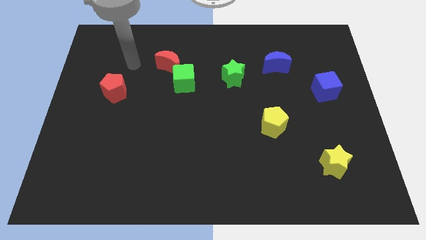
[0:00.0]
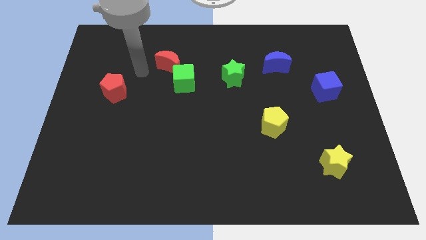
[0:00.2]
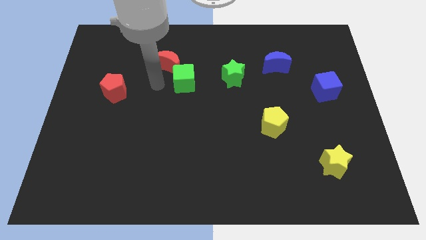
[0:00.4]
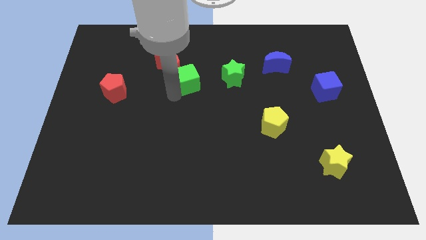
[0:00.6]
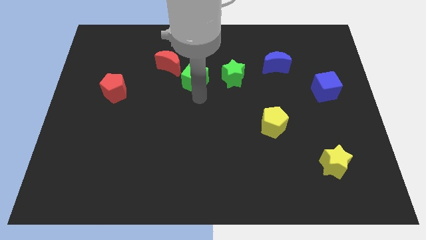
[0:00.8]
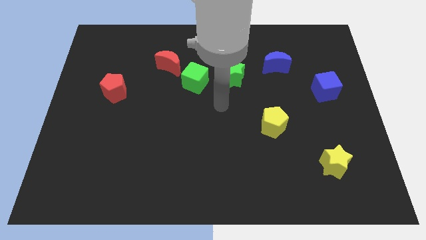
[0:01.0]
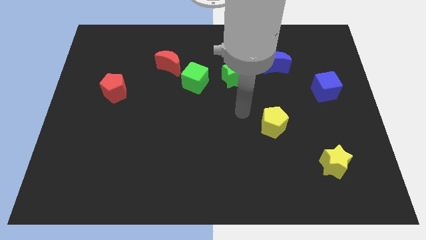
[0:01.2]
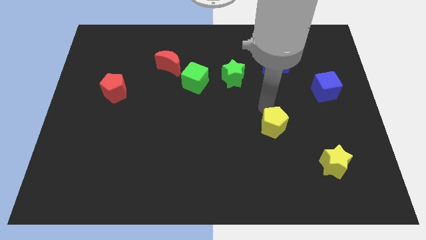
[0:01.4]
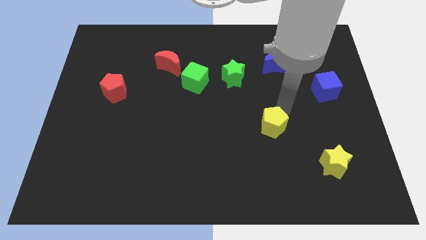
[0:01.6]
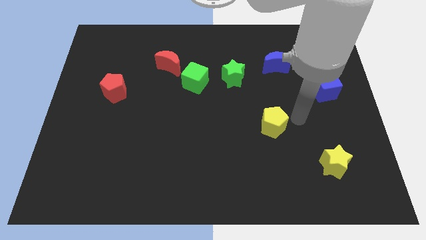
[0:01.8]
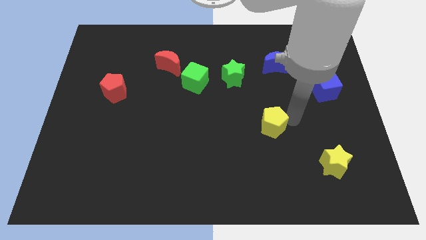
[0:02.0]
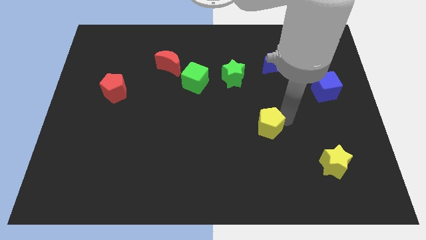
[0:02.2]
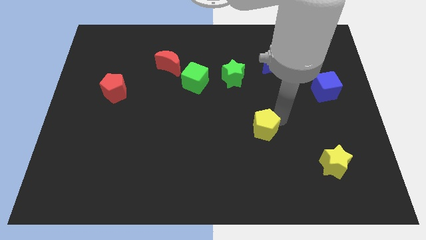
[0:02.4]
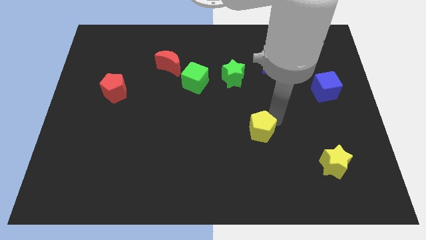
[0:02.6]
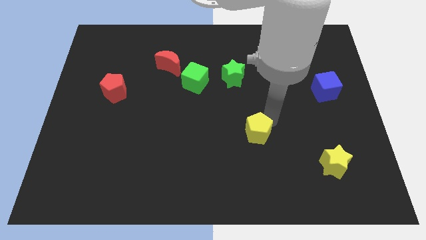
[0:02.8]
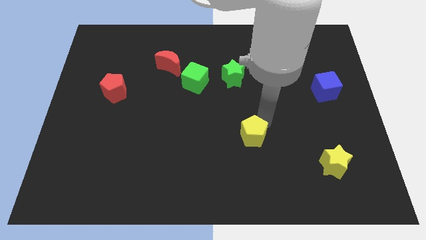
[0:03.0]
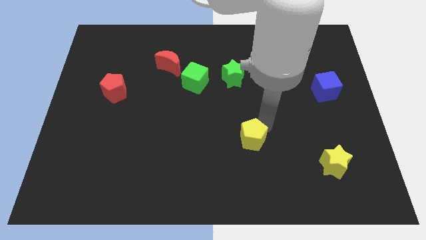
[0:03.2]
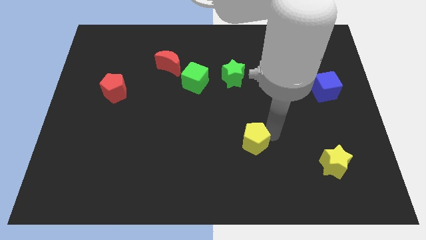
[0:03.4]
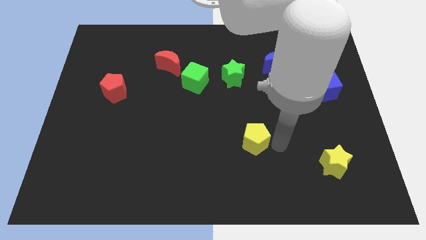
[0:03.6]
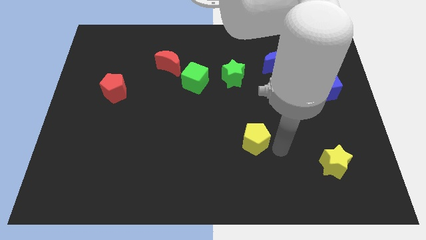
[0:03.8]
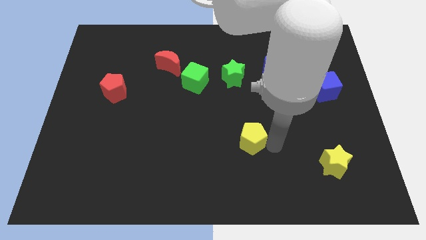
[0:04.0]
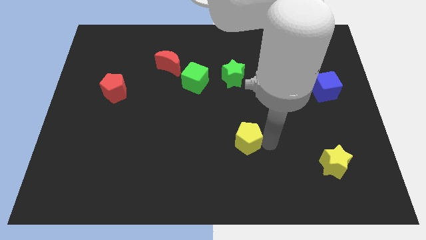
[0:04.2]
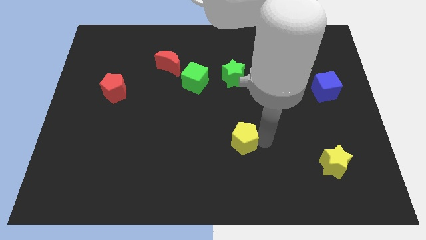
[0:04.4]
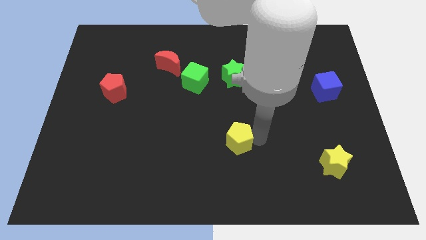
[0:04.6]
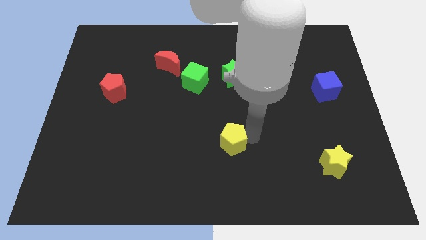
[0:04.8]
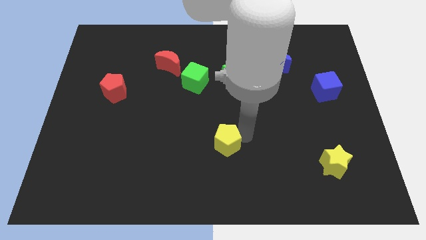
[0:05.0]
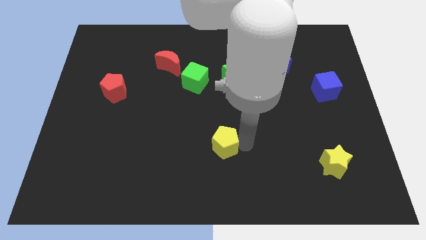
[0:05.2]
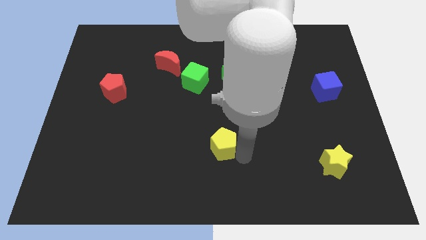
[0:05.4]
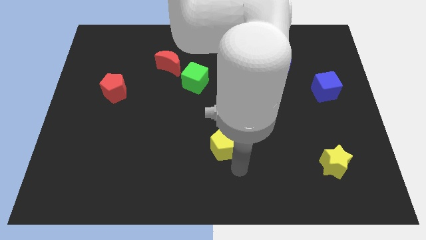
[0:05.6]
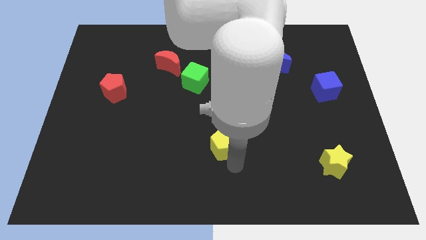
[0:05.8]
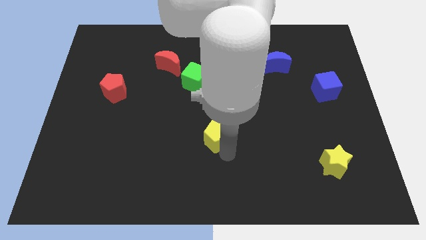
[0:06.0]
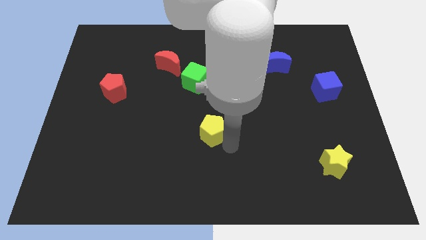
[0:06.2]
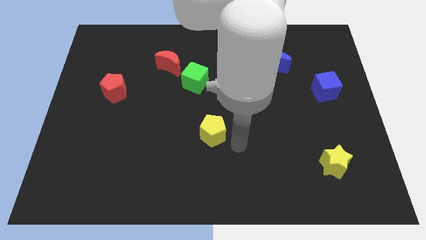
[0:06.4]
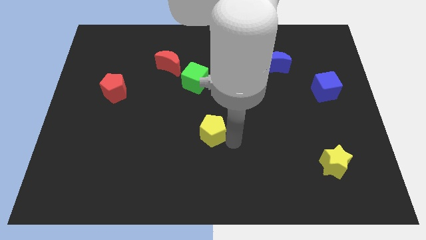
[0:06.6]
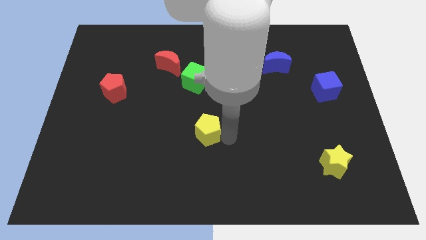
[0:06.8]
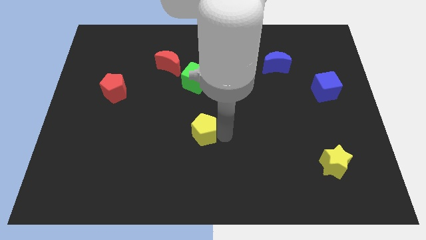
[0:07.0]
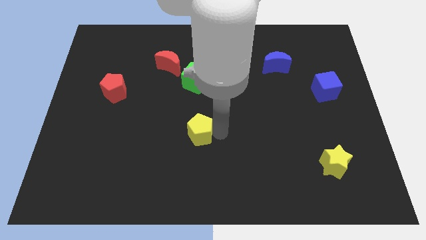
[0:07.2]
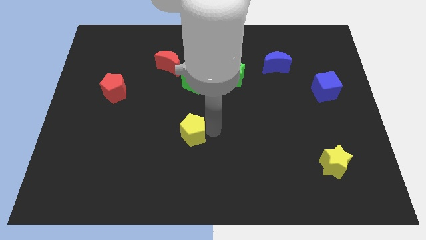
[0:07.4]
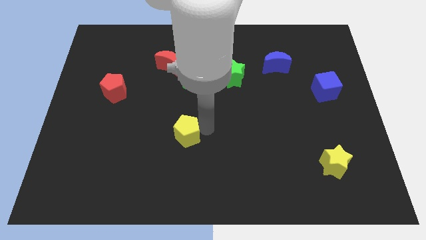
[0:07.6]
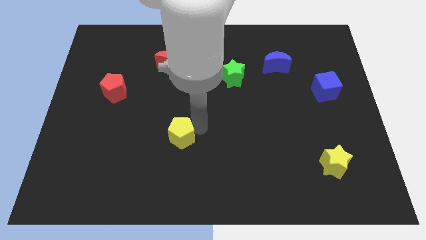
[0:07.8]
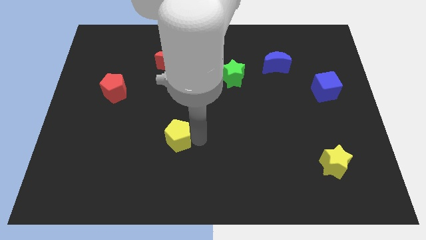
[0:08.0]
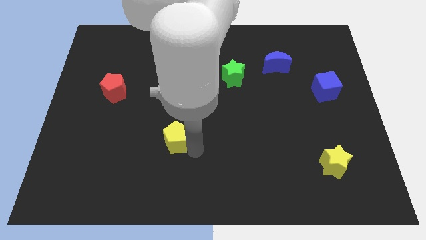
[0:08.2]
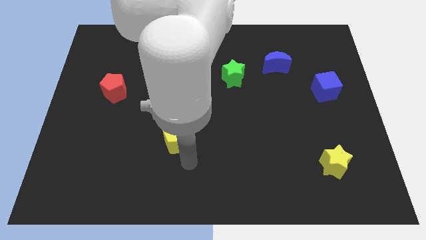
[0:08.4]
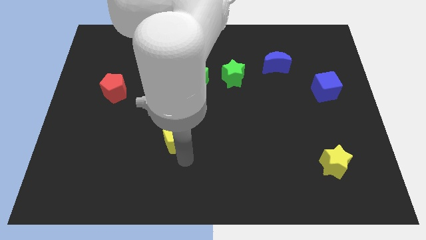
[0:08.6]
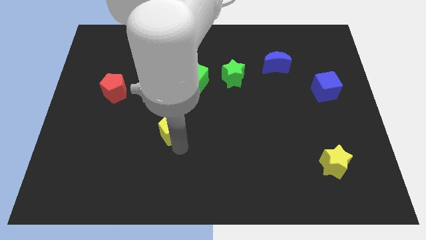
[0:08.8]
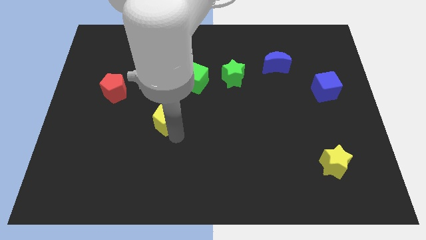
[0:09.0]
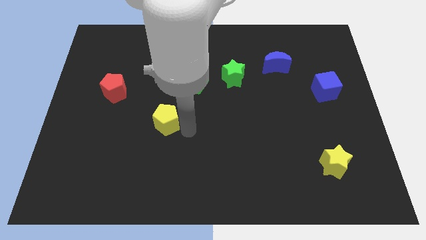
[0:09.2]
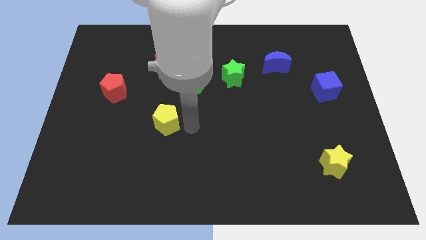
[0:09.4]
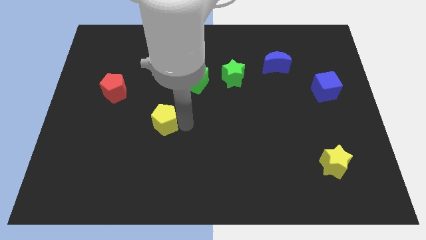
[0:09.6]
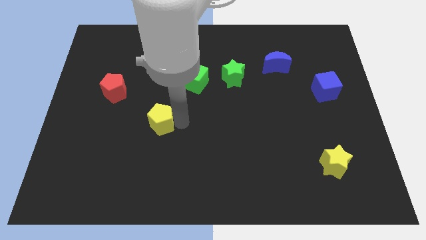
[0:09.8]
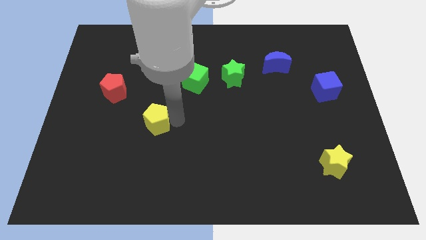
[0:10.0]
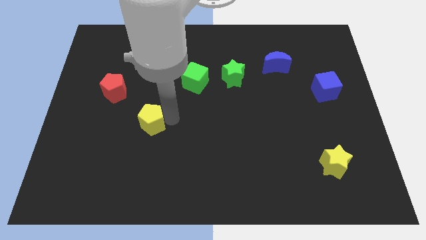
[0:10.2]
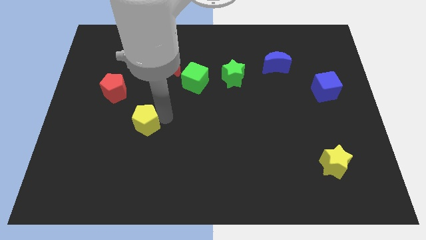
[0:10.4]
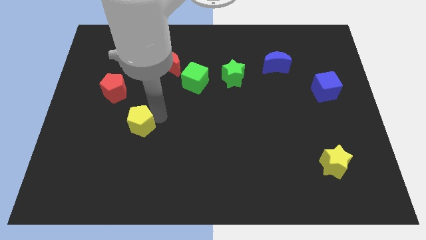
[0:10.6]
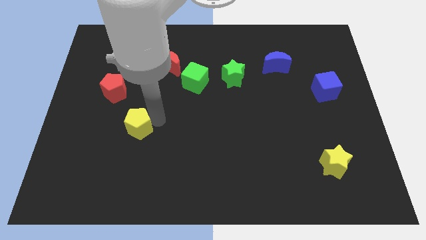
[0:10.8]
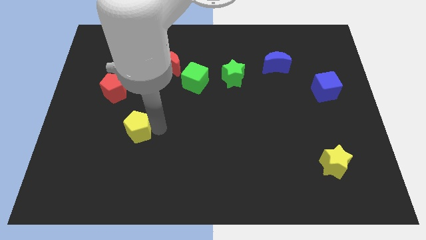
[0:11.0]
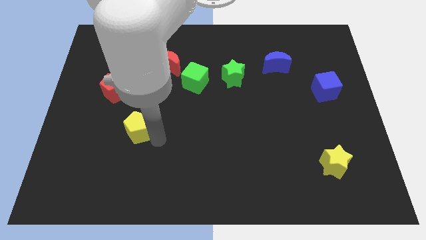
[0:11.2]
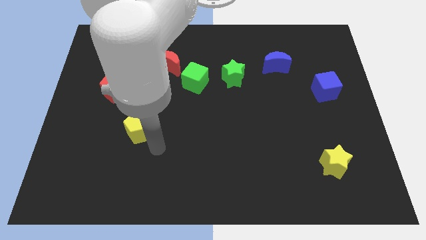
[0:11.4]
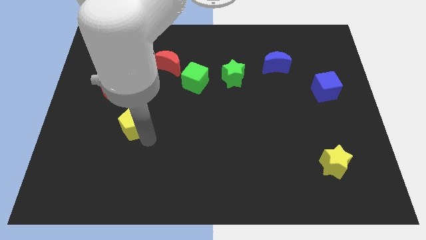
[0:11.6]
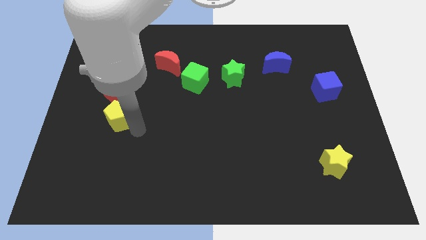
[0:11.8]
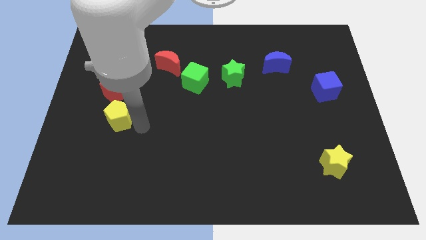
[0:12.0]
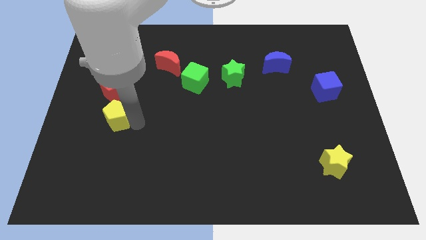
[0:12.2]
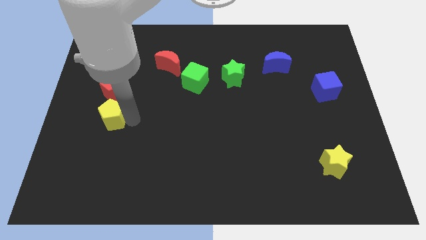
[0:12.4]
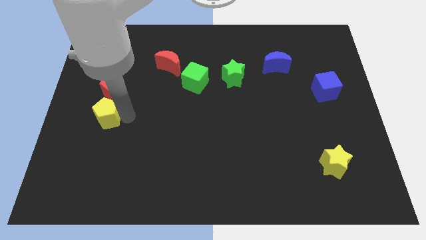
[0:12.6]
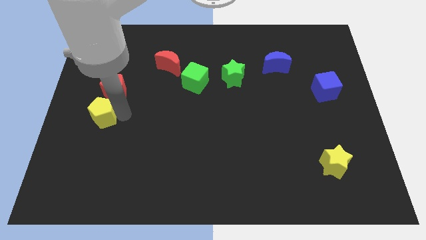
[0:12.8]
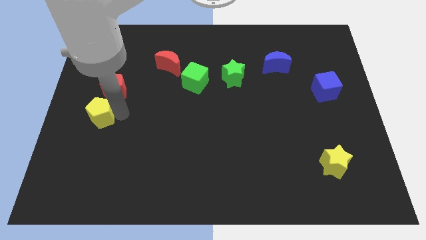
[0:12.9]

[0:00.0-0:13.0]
slide the yellow pentagon to the left side of the board
